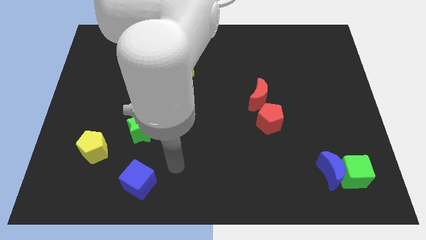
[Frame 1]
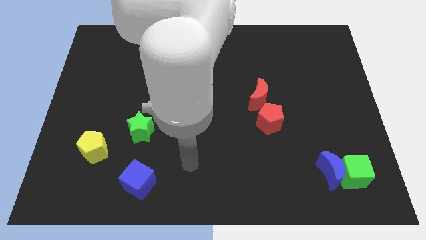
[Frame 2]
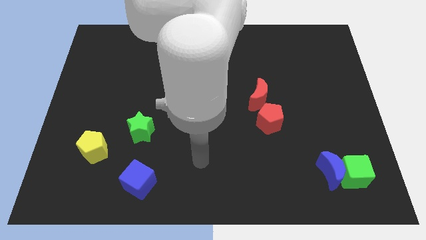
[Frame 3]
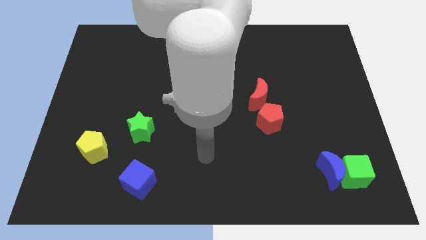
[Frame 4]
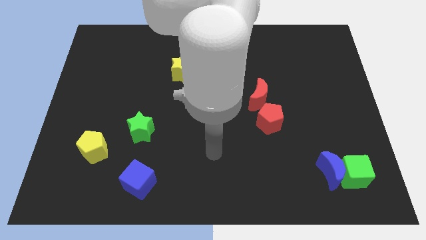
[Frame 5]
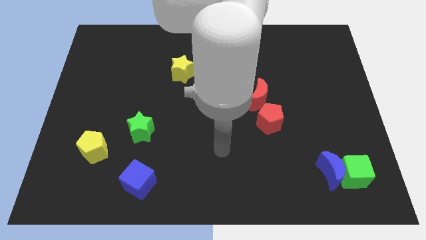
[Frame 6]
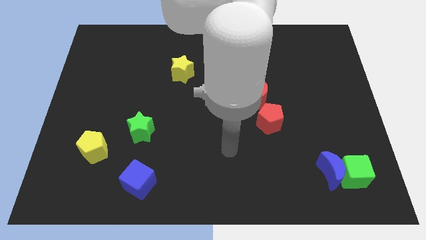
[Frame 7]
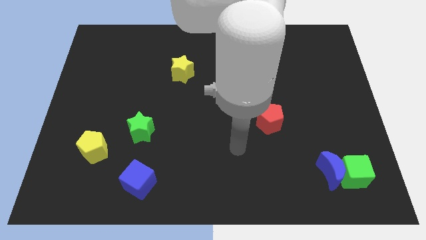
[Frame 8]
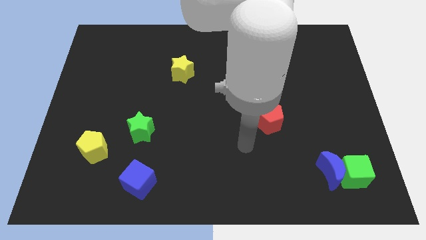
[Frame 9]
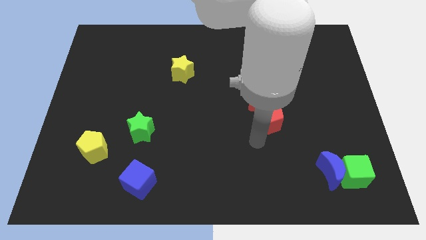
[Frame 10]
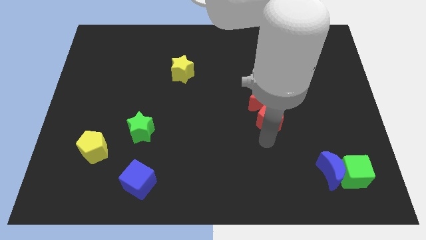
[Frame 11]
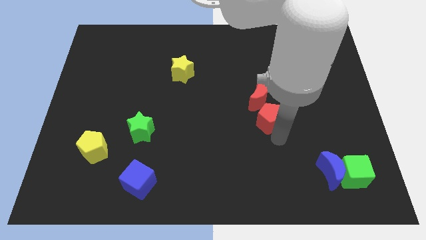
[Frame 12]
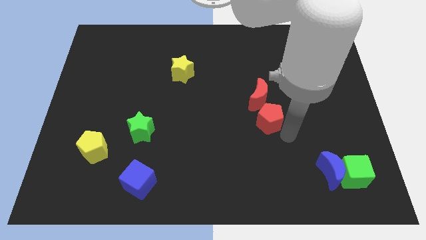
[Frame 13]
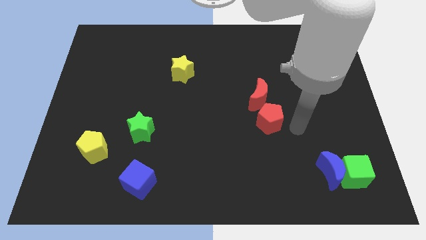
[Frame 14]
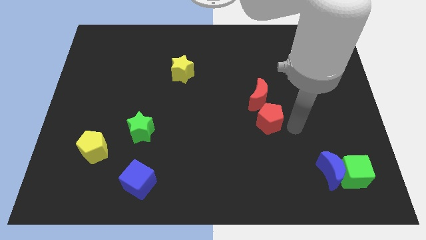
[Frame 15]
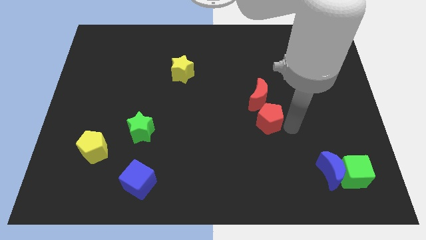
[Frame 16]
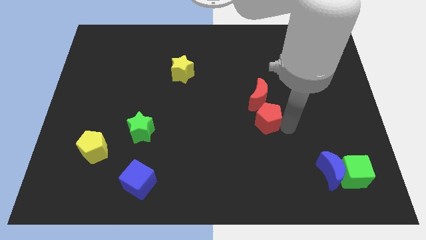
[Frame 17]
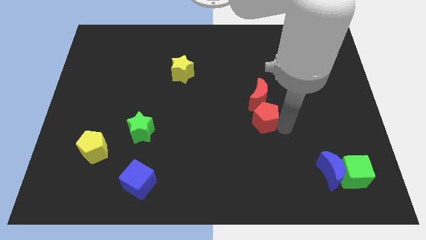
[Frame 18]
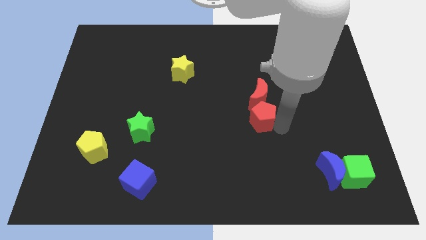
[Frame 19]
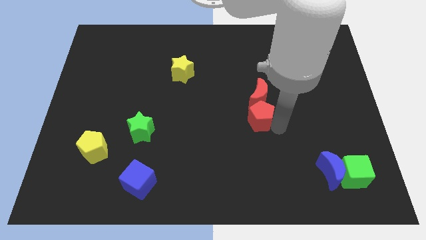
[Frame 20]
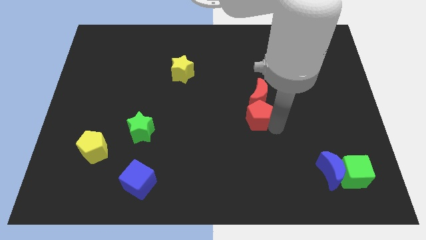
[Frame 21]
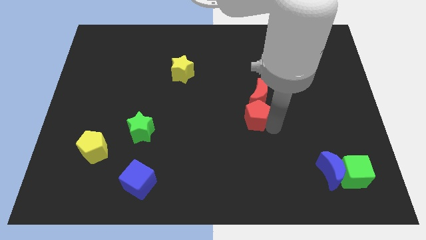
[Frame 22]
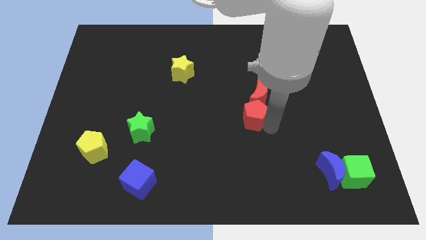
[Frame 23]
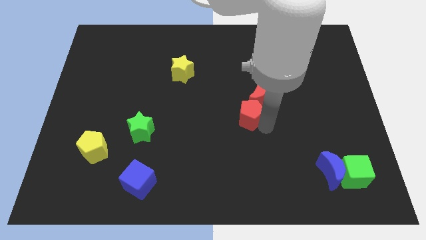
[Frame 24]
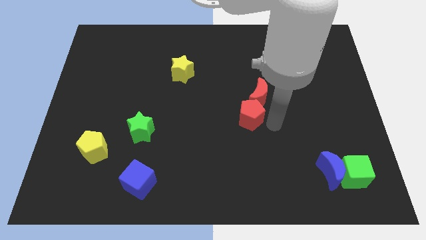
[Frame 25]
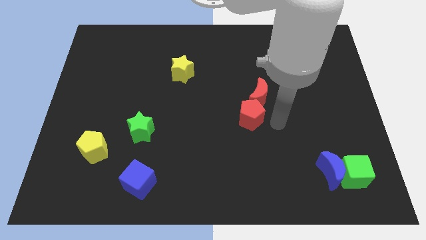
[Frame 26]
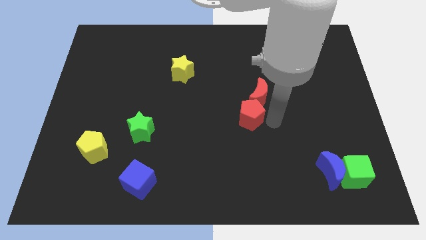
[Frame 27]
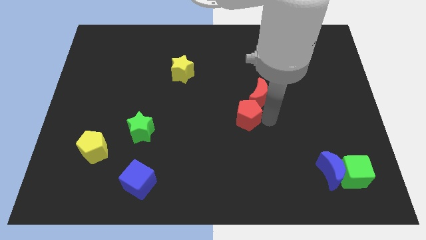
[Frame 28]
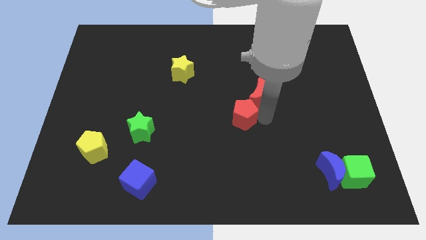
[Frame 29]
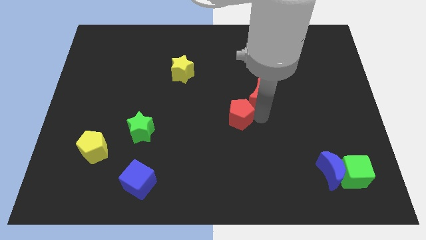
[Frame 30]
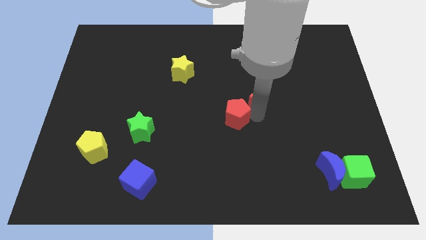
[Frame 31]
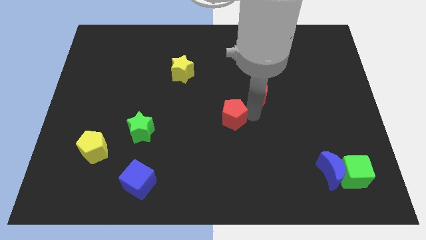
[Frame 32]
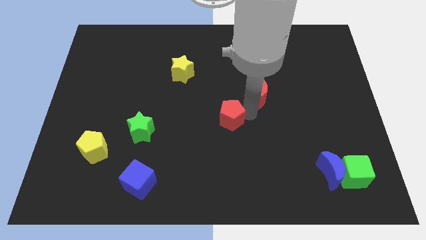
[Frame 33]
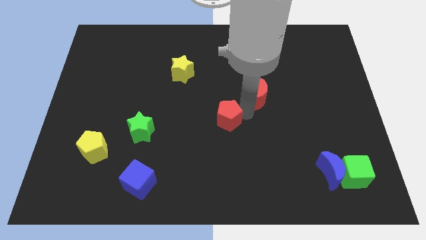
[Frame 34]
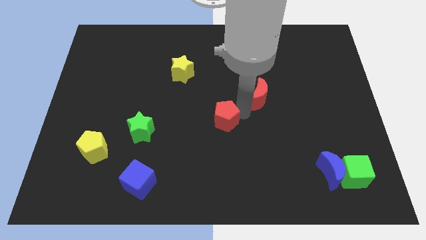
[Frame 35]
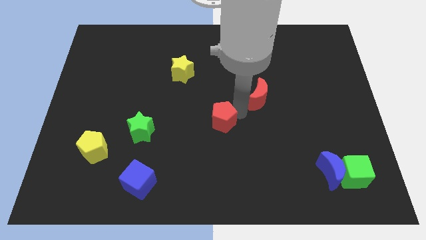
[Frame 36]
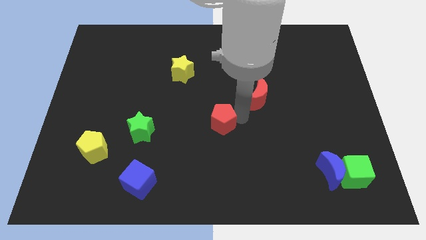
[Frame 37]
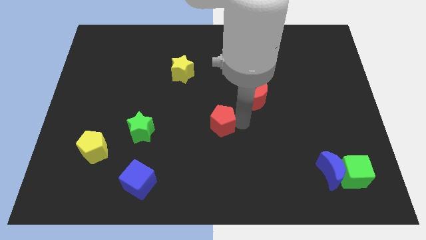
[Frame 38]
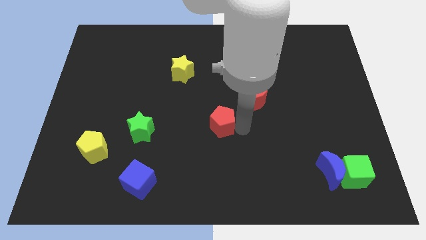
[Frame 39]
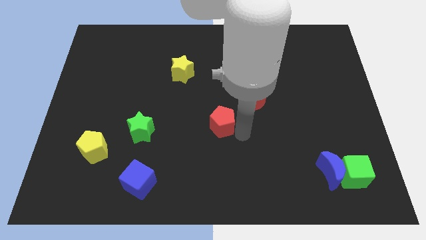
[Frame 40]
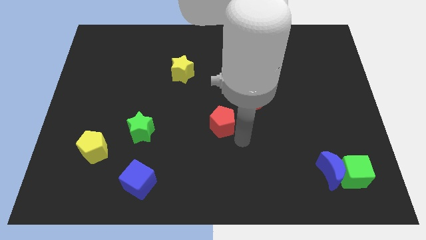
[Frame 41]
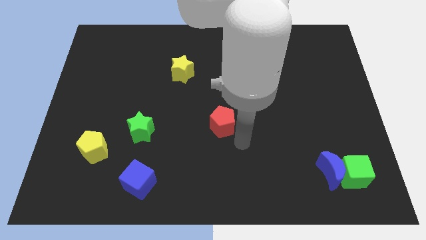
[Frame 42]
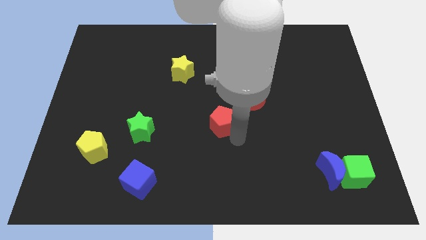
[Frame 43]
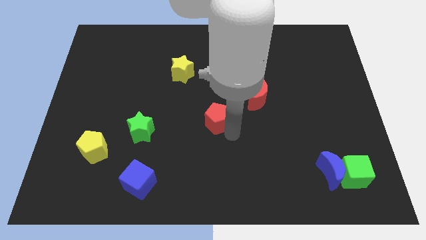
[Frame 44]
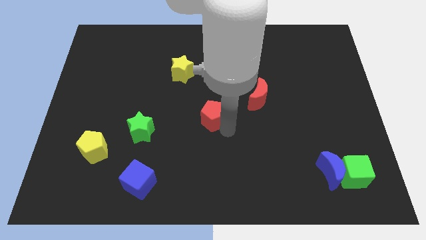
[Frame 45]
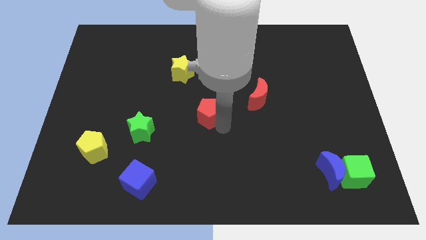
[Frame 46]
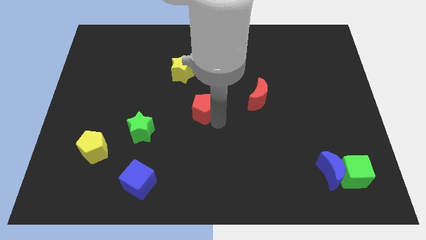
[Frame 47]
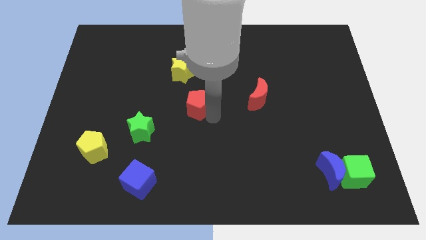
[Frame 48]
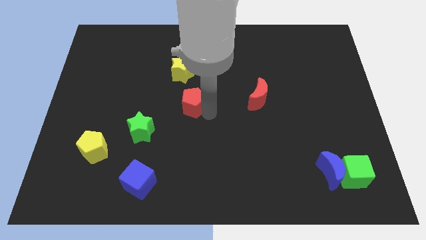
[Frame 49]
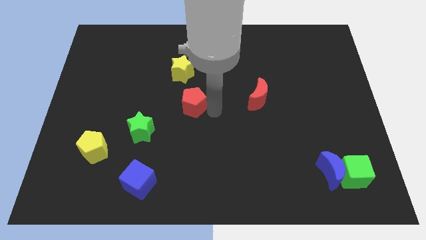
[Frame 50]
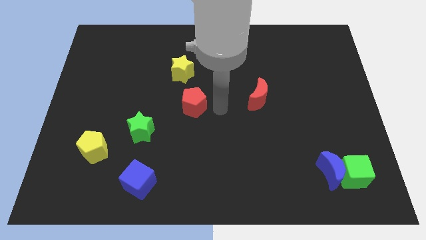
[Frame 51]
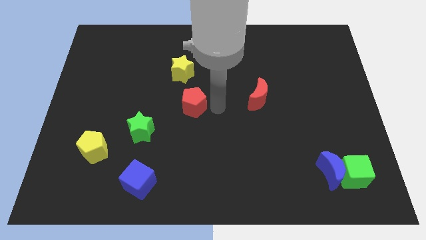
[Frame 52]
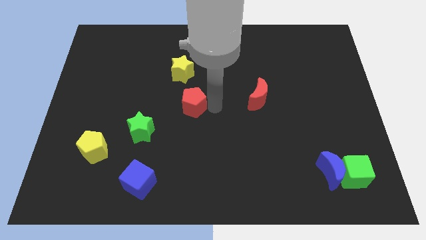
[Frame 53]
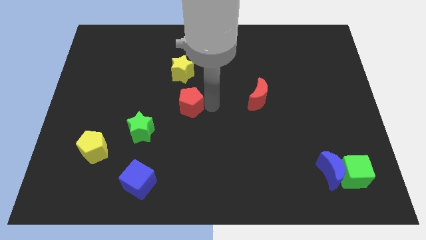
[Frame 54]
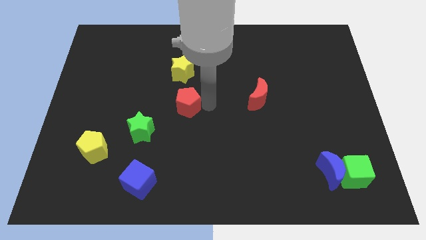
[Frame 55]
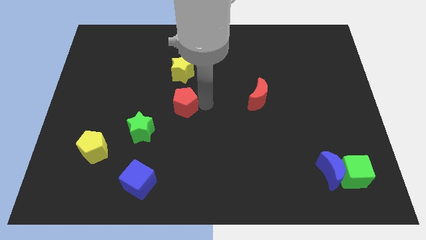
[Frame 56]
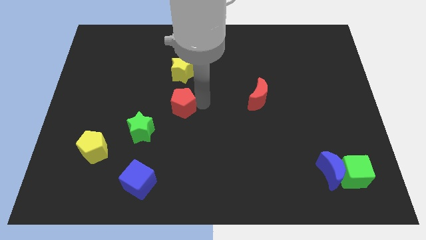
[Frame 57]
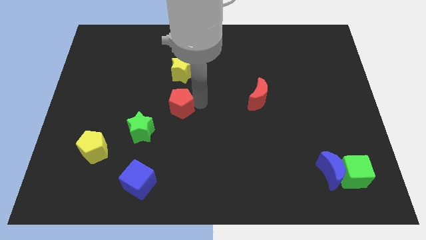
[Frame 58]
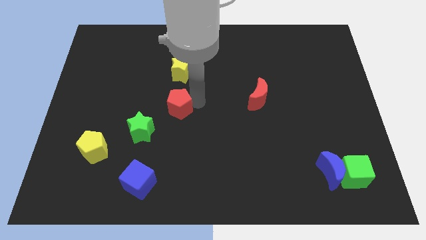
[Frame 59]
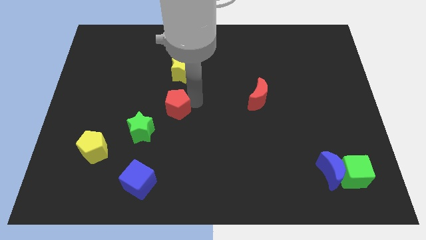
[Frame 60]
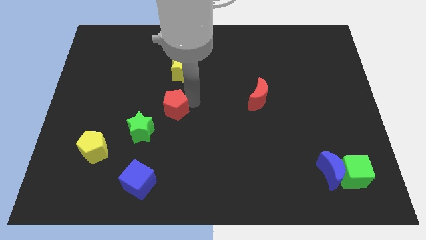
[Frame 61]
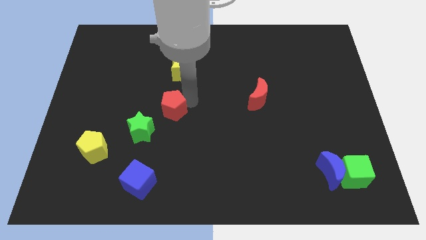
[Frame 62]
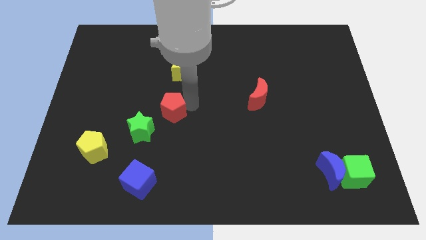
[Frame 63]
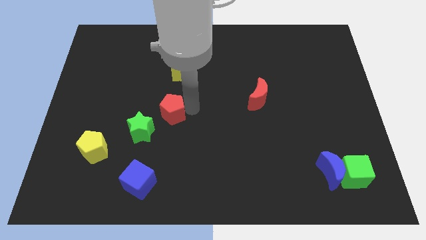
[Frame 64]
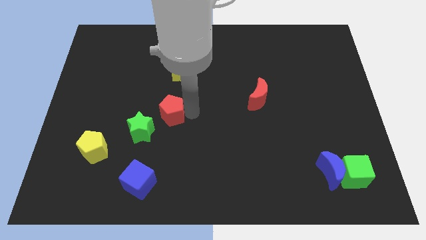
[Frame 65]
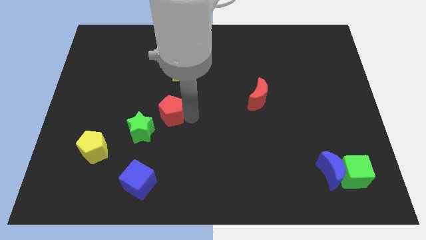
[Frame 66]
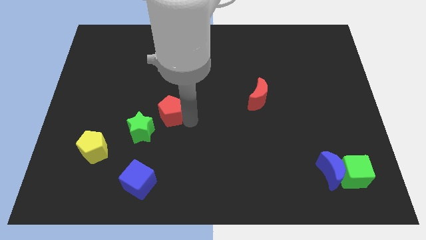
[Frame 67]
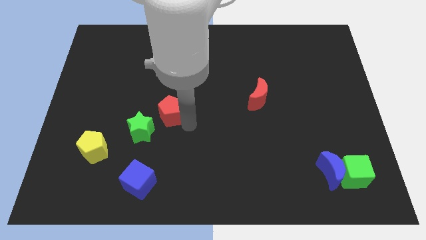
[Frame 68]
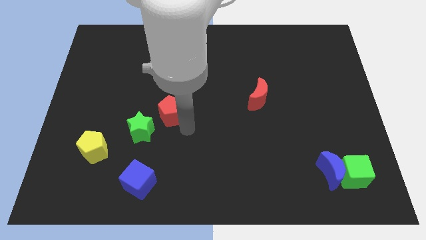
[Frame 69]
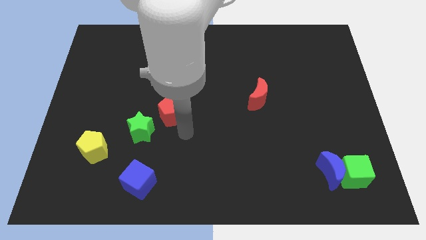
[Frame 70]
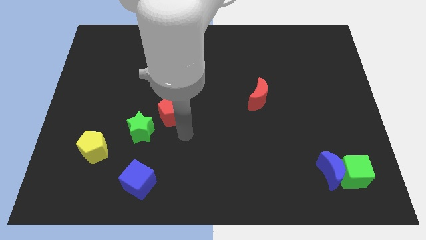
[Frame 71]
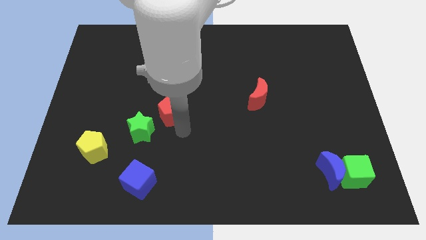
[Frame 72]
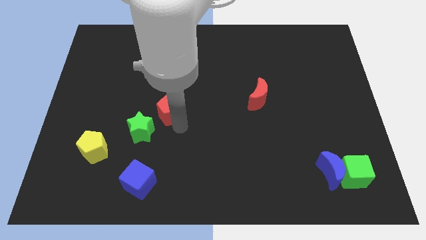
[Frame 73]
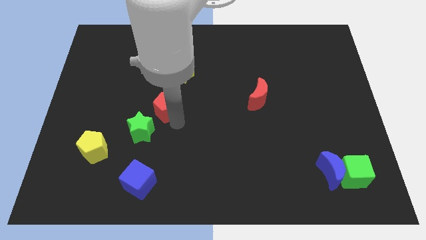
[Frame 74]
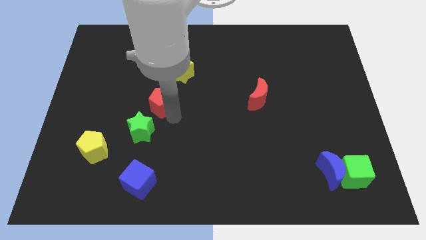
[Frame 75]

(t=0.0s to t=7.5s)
slide the red pentagon to the top side of the green star
